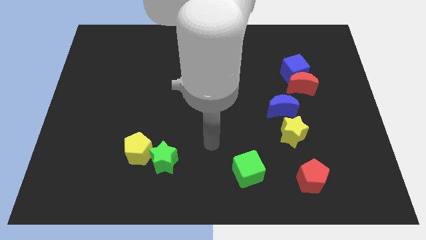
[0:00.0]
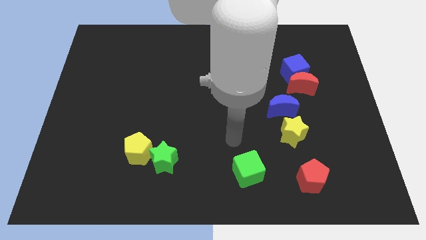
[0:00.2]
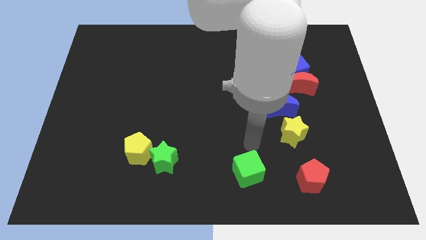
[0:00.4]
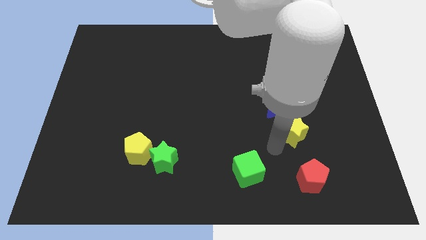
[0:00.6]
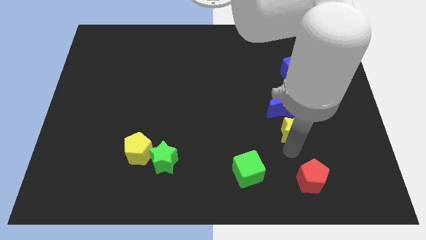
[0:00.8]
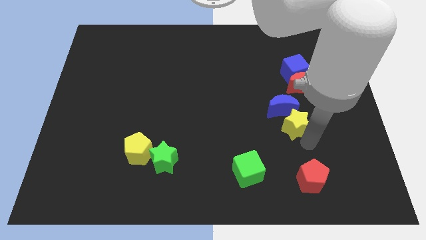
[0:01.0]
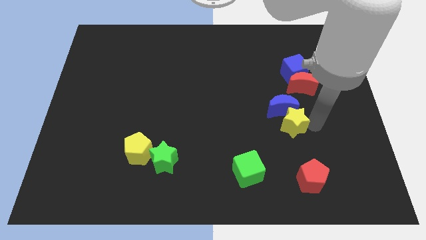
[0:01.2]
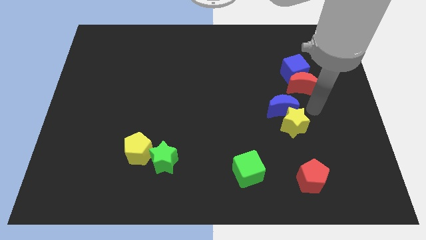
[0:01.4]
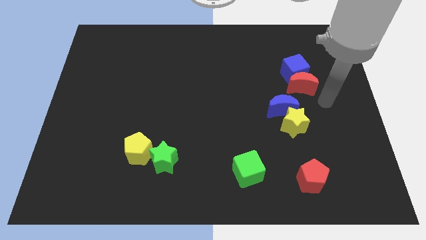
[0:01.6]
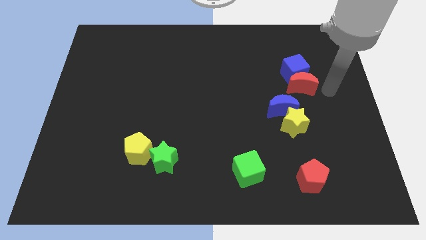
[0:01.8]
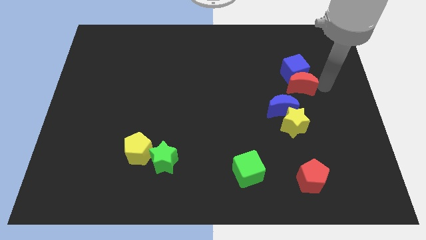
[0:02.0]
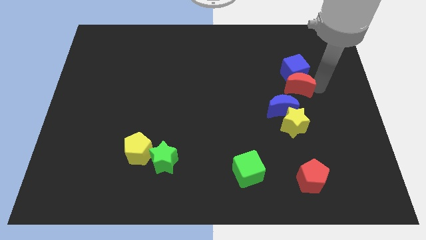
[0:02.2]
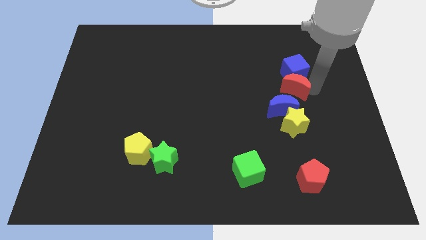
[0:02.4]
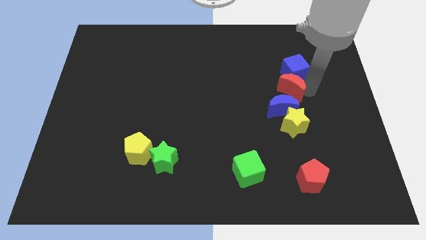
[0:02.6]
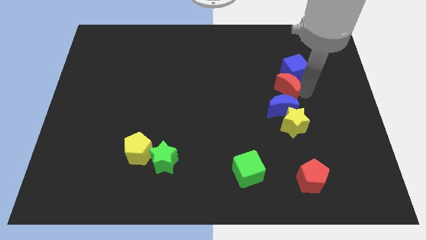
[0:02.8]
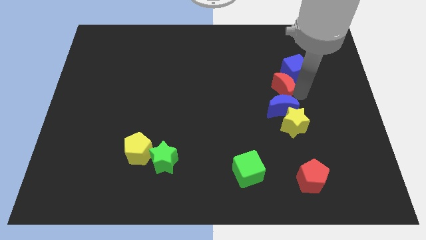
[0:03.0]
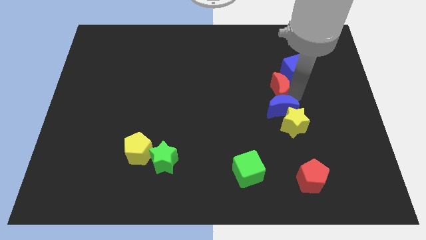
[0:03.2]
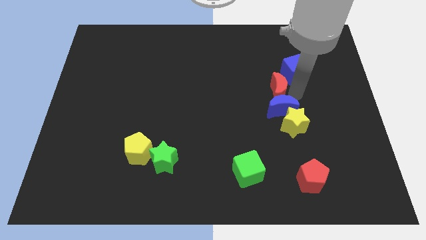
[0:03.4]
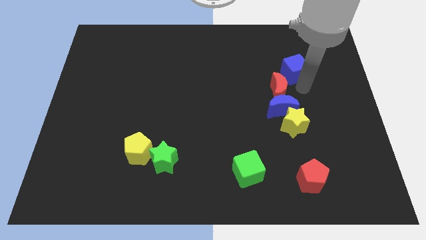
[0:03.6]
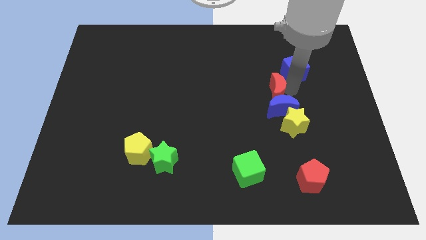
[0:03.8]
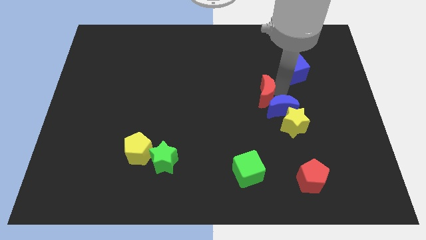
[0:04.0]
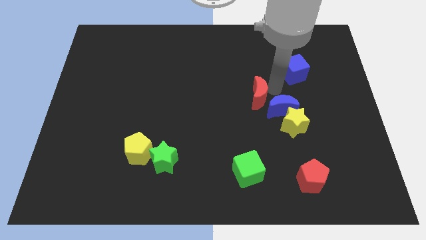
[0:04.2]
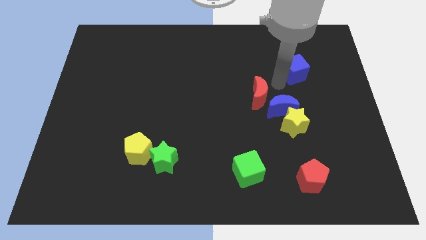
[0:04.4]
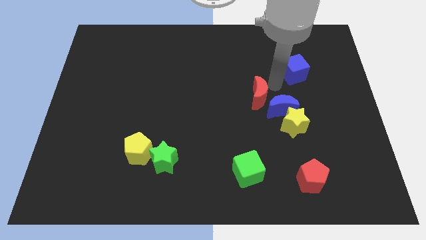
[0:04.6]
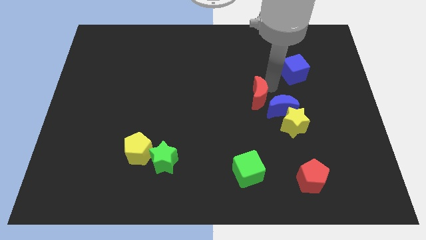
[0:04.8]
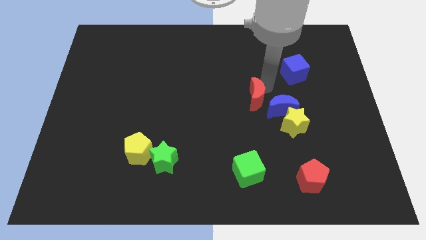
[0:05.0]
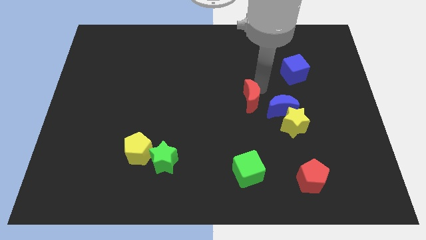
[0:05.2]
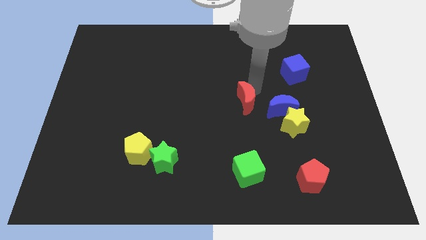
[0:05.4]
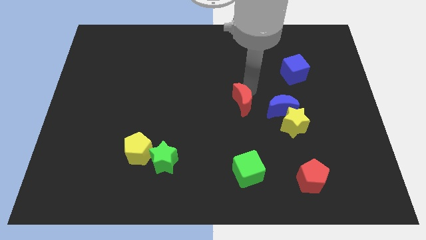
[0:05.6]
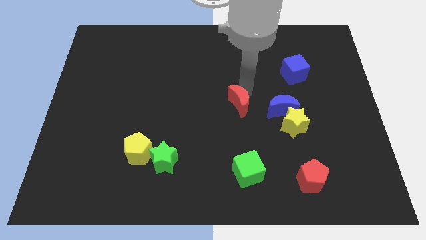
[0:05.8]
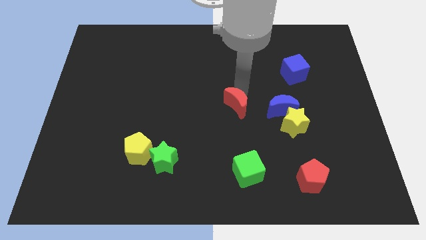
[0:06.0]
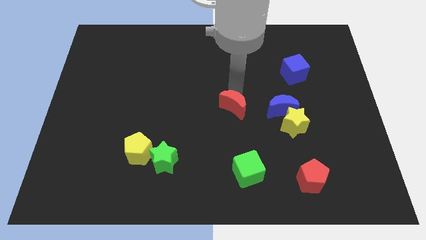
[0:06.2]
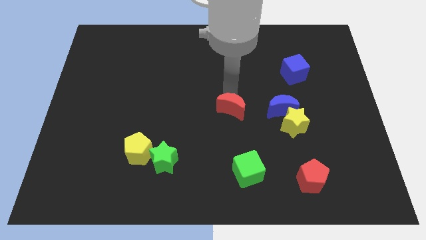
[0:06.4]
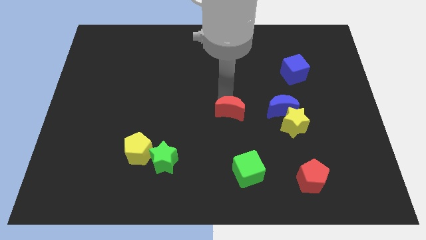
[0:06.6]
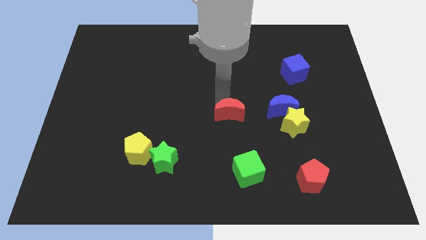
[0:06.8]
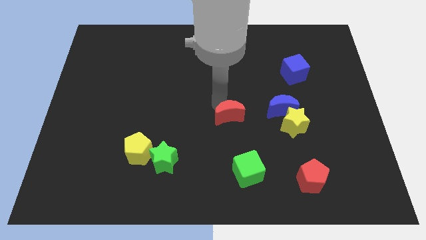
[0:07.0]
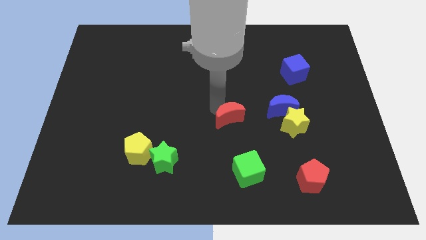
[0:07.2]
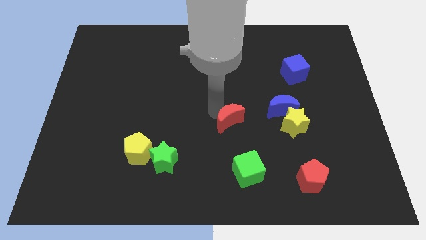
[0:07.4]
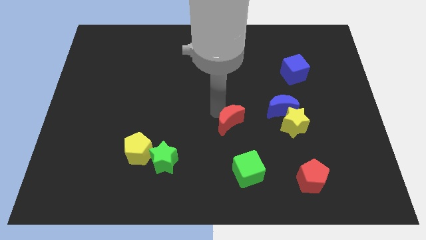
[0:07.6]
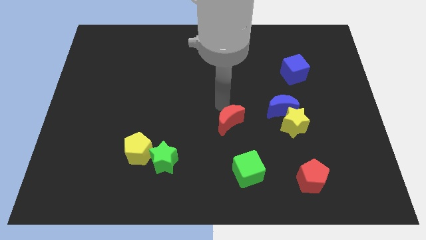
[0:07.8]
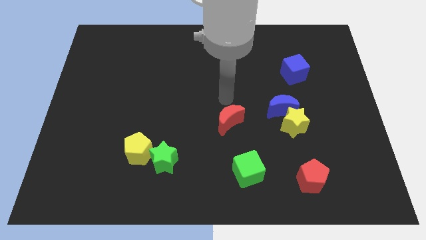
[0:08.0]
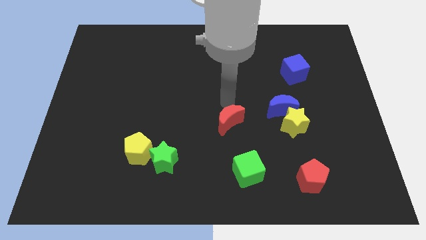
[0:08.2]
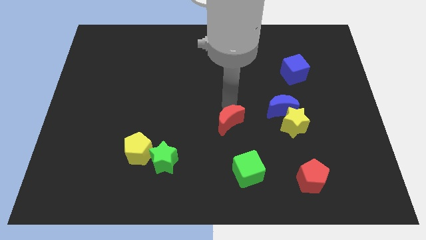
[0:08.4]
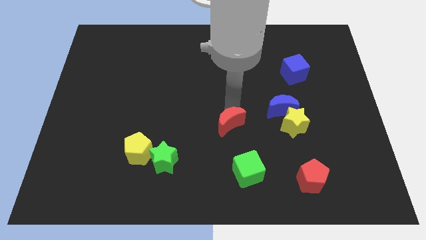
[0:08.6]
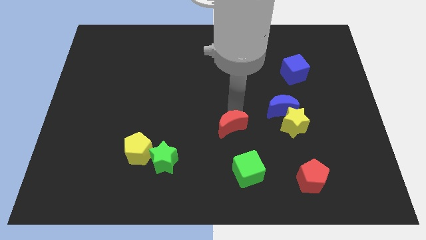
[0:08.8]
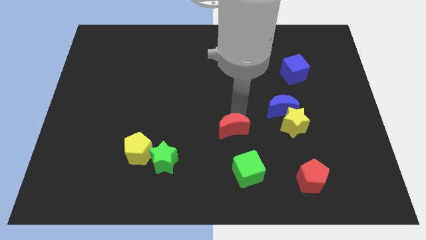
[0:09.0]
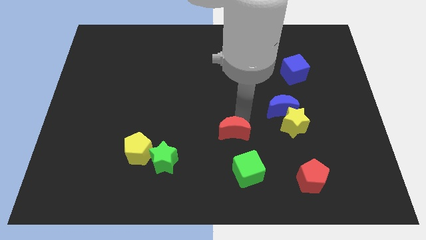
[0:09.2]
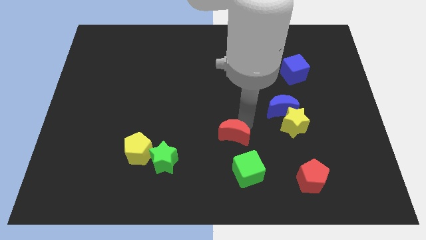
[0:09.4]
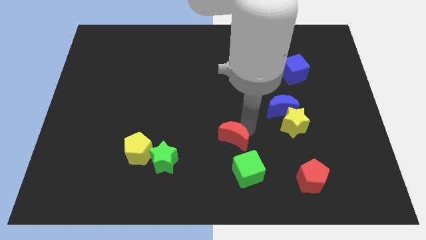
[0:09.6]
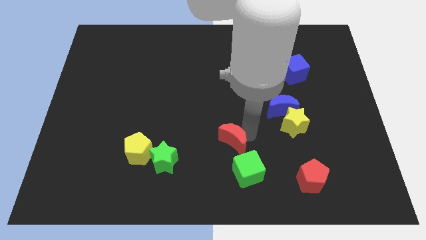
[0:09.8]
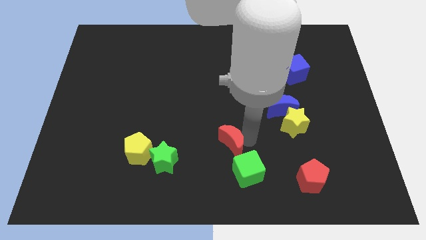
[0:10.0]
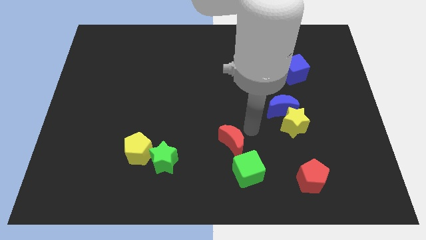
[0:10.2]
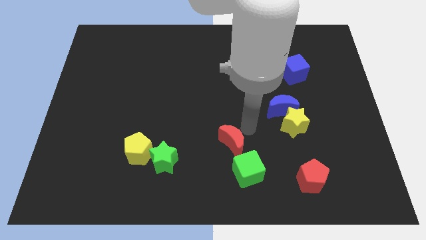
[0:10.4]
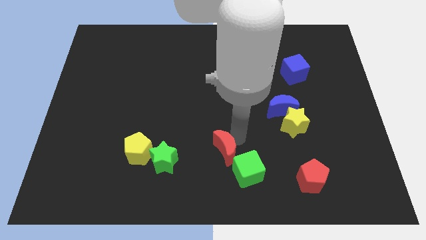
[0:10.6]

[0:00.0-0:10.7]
push the red moon right of the green star

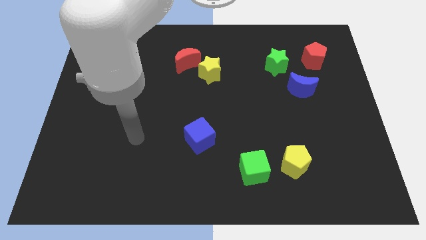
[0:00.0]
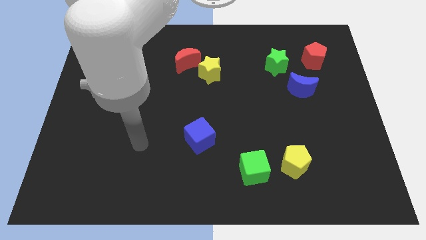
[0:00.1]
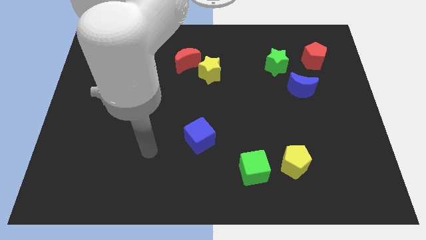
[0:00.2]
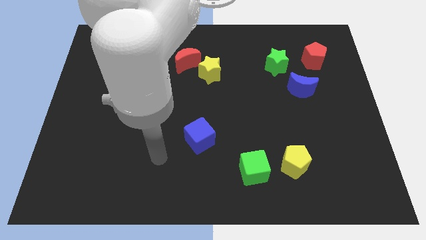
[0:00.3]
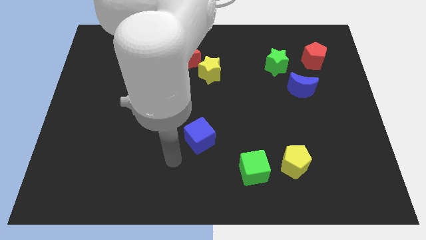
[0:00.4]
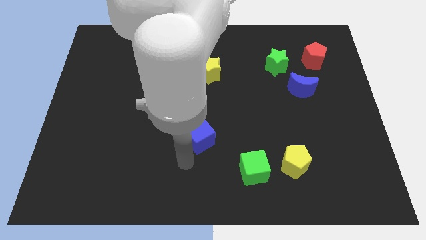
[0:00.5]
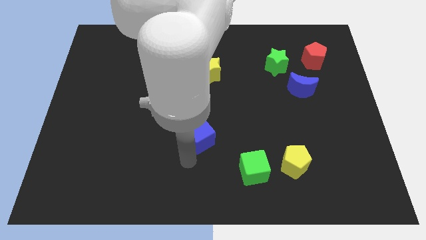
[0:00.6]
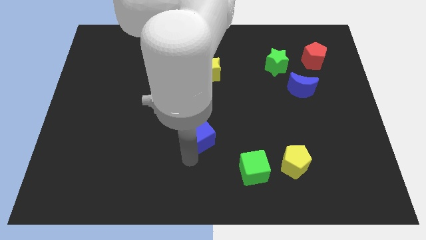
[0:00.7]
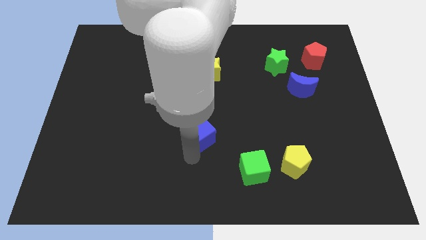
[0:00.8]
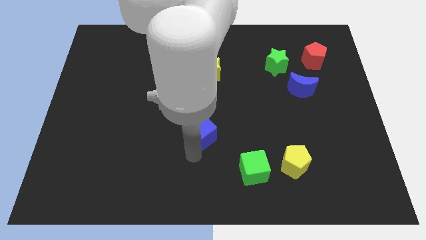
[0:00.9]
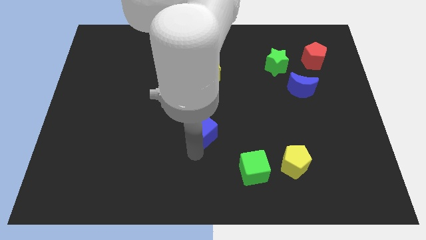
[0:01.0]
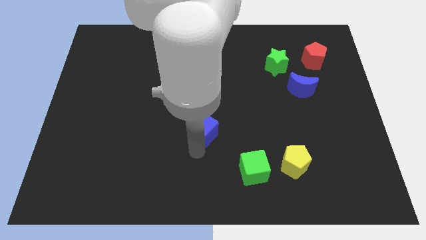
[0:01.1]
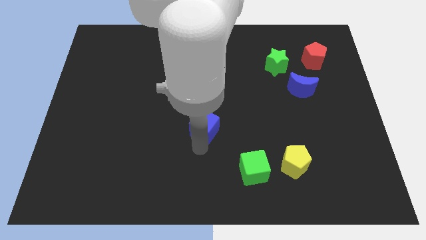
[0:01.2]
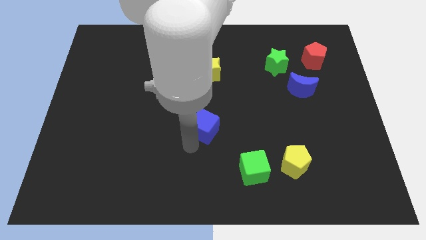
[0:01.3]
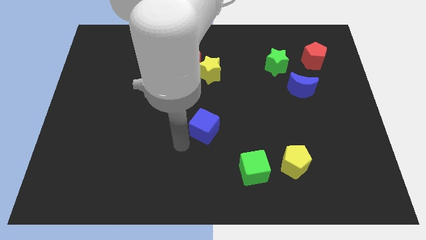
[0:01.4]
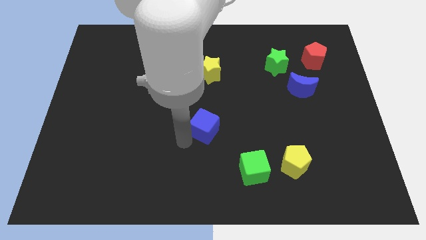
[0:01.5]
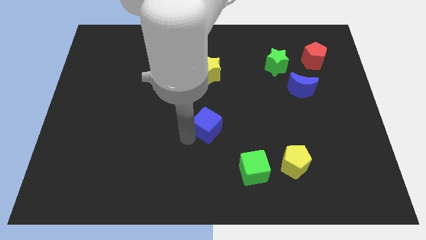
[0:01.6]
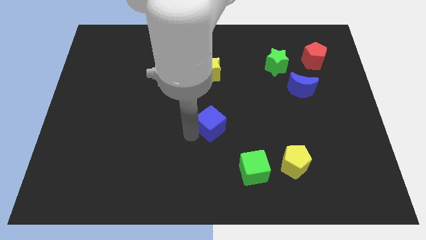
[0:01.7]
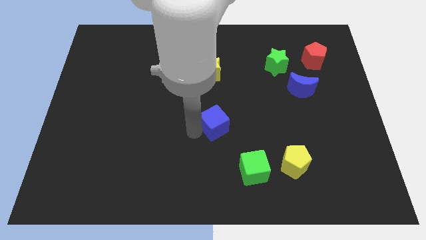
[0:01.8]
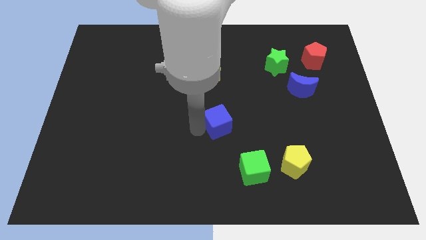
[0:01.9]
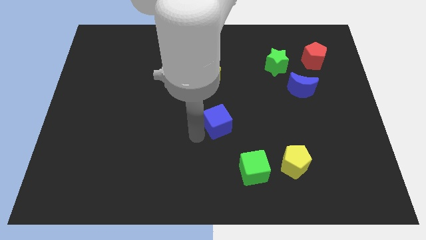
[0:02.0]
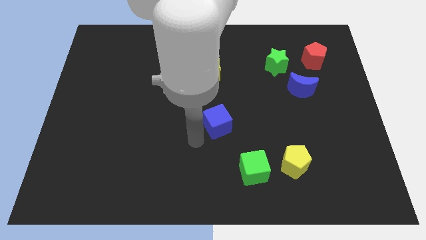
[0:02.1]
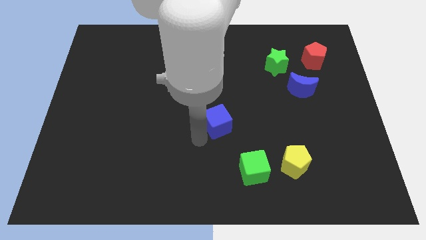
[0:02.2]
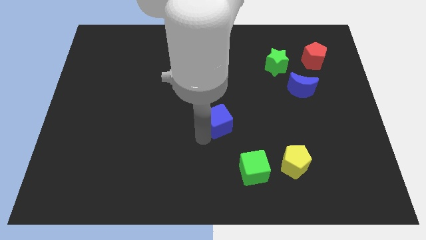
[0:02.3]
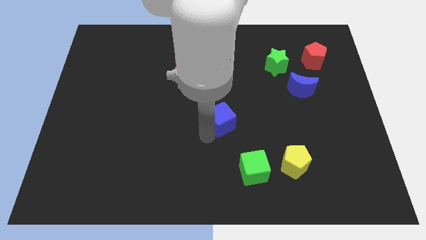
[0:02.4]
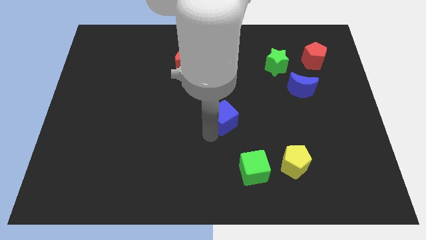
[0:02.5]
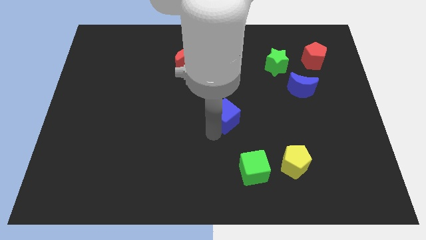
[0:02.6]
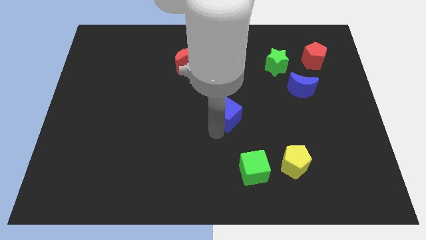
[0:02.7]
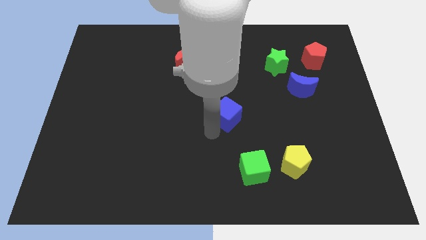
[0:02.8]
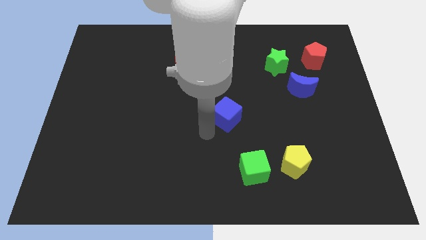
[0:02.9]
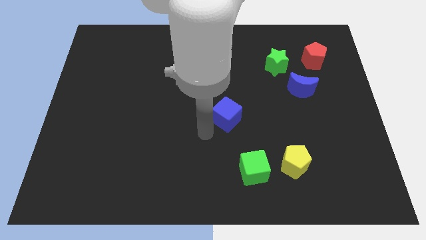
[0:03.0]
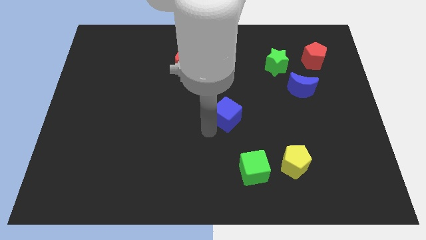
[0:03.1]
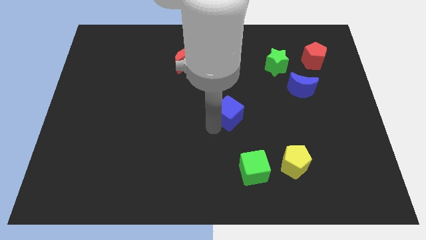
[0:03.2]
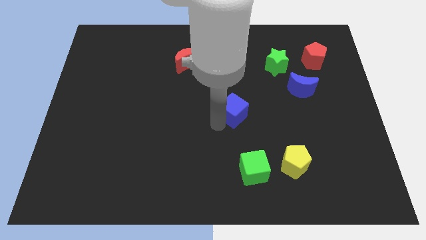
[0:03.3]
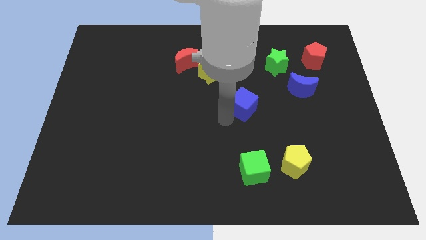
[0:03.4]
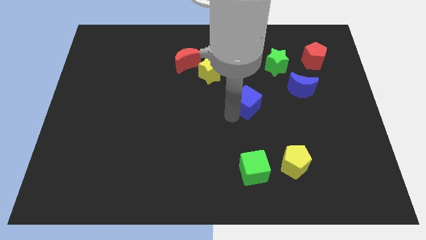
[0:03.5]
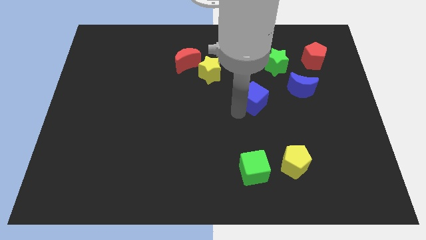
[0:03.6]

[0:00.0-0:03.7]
slide the blue cube to the left of the blue moon
